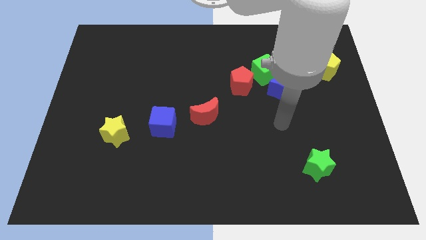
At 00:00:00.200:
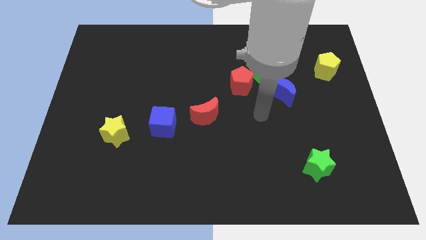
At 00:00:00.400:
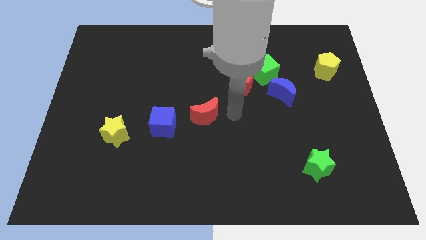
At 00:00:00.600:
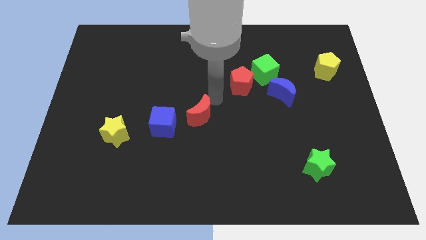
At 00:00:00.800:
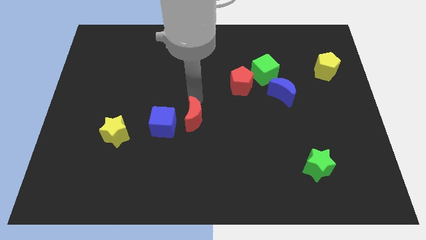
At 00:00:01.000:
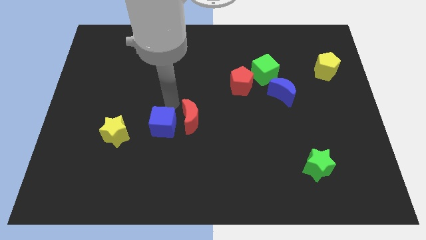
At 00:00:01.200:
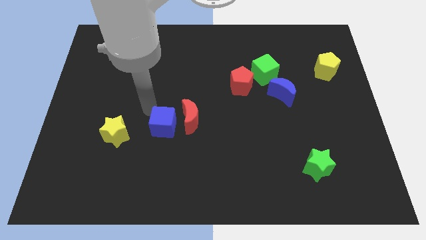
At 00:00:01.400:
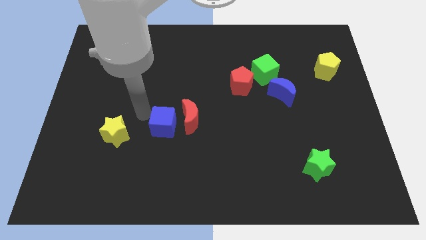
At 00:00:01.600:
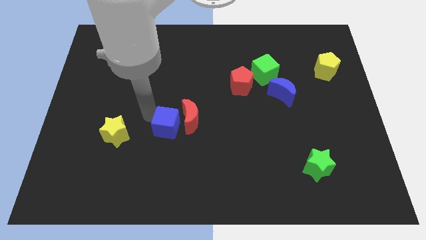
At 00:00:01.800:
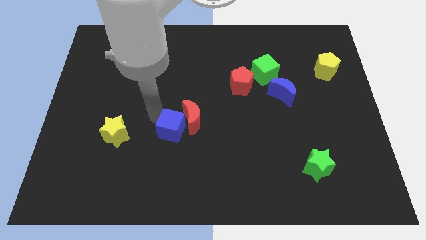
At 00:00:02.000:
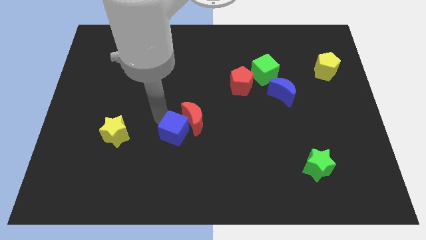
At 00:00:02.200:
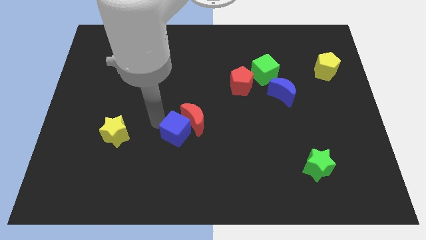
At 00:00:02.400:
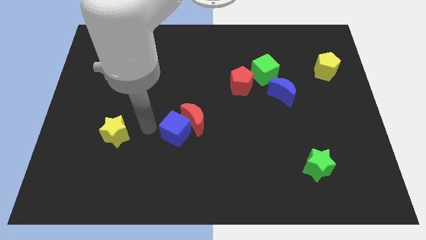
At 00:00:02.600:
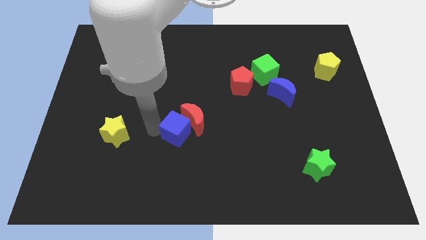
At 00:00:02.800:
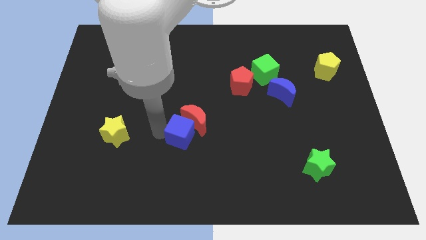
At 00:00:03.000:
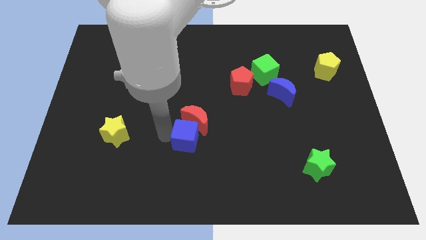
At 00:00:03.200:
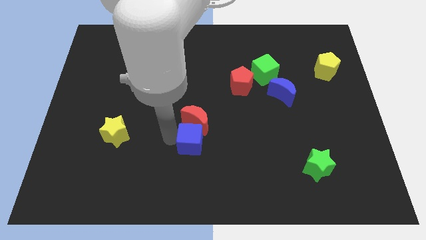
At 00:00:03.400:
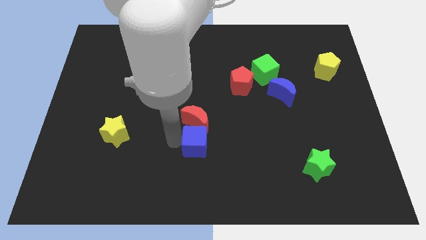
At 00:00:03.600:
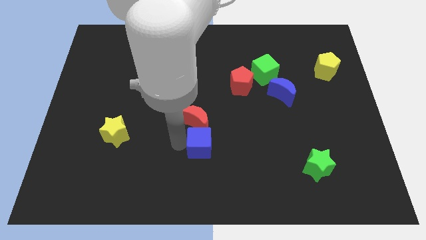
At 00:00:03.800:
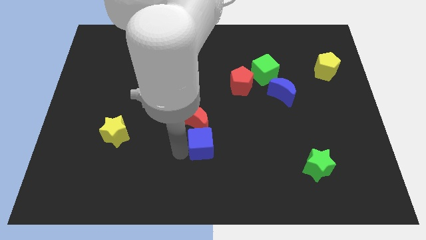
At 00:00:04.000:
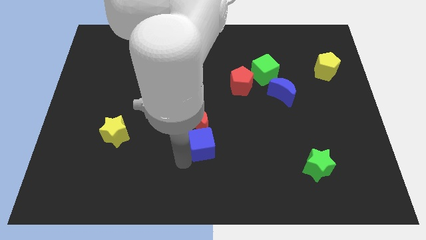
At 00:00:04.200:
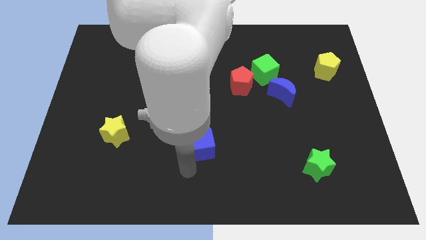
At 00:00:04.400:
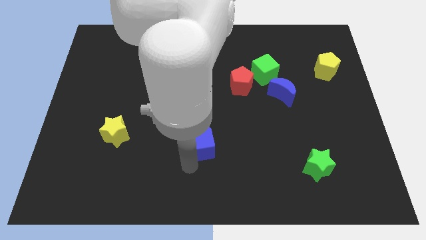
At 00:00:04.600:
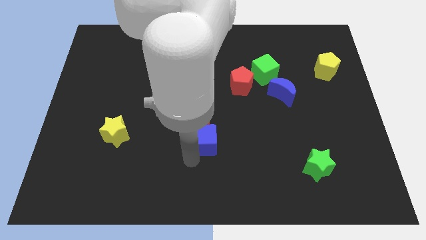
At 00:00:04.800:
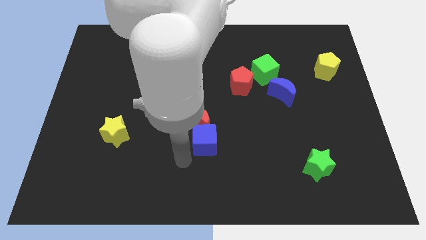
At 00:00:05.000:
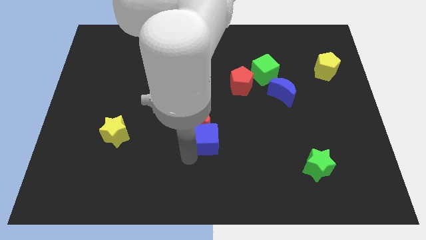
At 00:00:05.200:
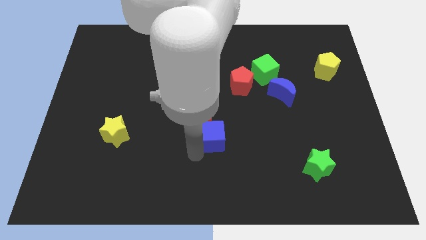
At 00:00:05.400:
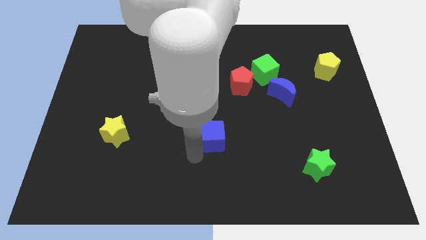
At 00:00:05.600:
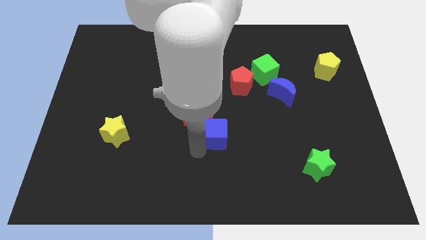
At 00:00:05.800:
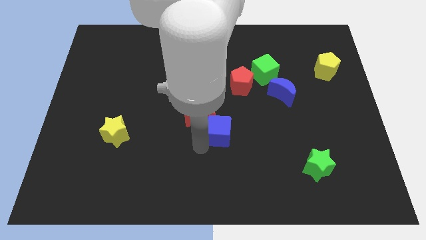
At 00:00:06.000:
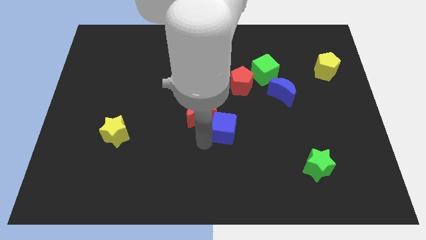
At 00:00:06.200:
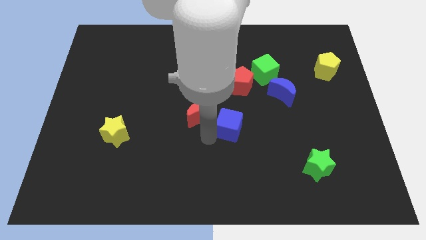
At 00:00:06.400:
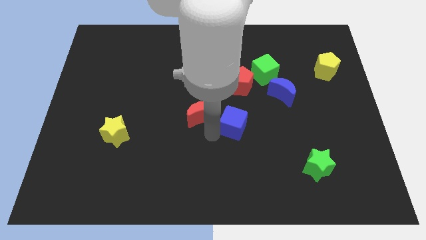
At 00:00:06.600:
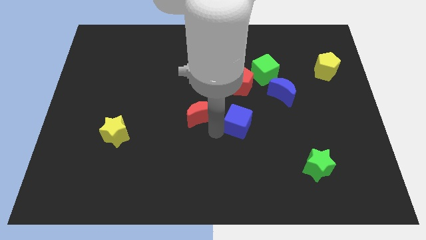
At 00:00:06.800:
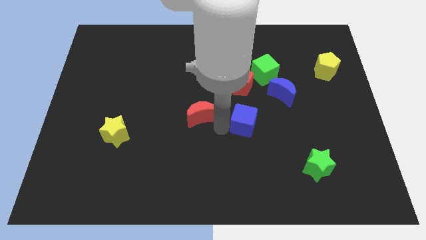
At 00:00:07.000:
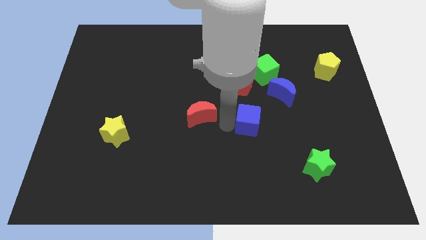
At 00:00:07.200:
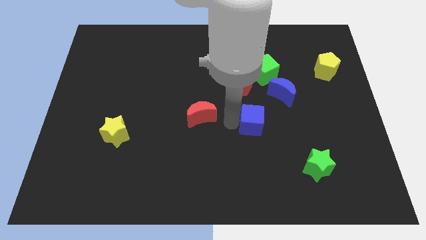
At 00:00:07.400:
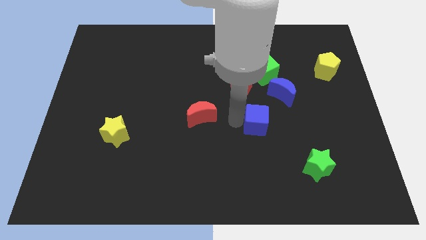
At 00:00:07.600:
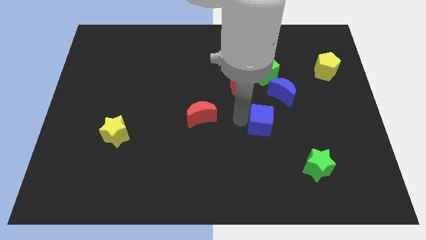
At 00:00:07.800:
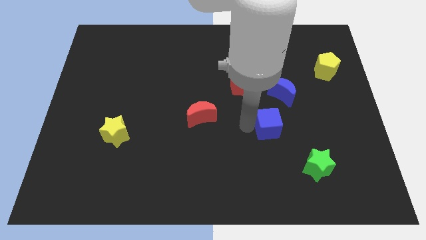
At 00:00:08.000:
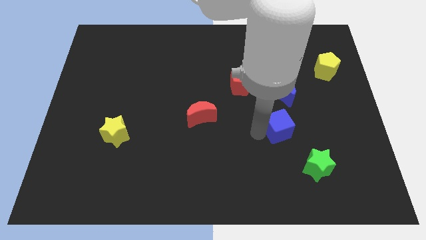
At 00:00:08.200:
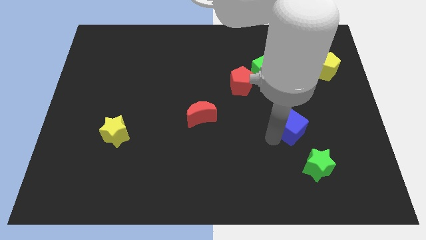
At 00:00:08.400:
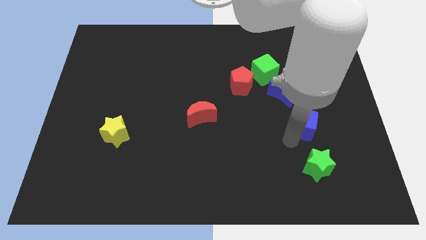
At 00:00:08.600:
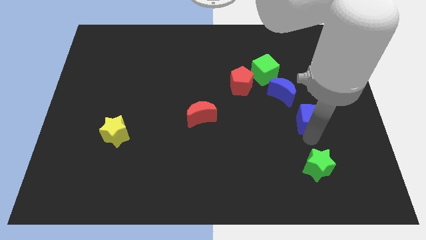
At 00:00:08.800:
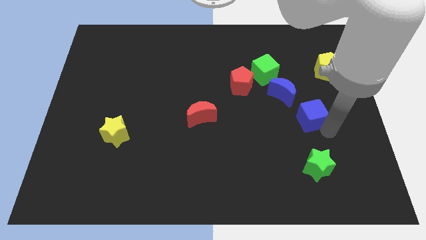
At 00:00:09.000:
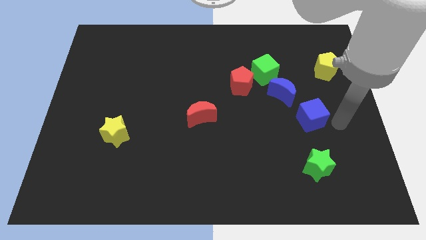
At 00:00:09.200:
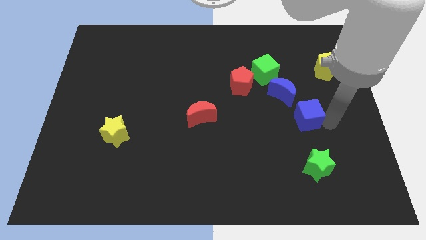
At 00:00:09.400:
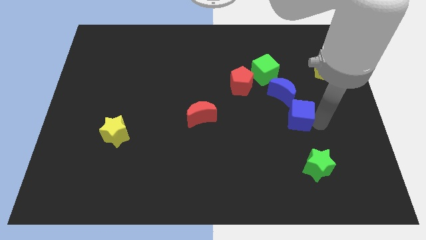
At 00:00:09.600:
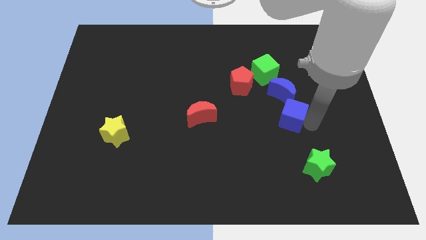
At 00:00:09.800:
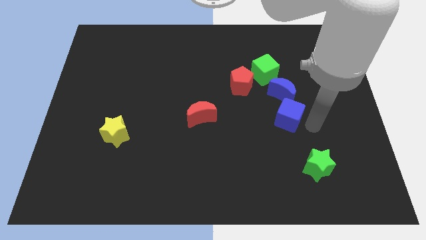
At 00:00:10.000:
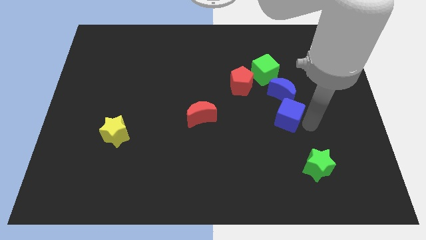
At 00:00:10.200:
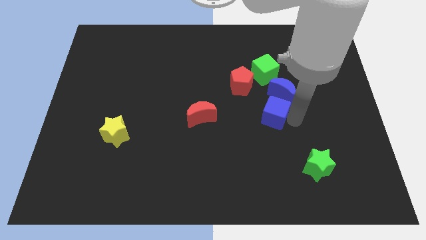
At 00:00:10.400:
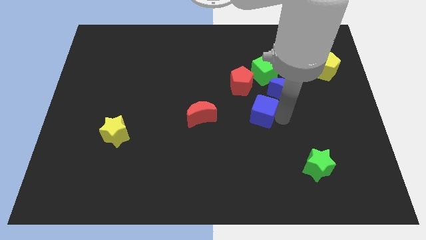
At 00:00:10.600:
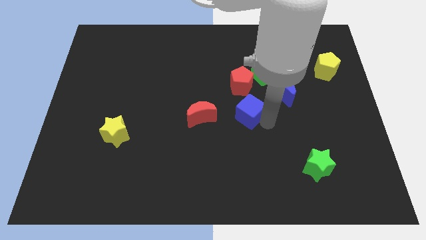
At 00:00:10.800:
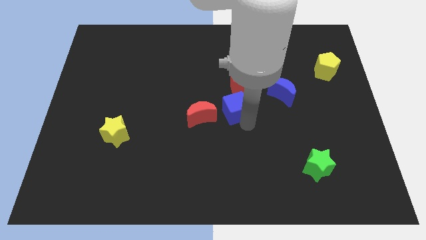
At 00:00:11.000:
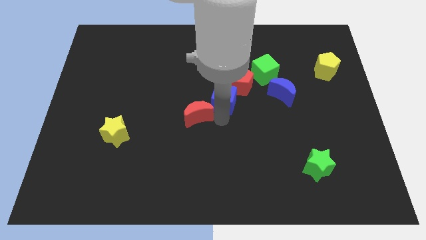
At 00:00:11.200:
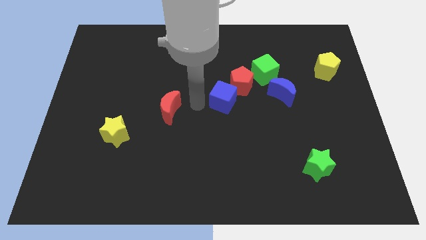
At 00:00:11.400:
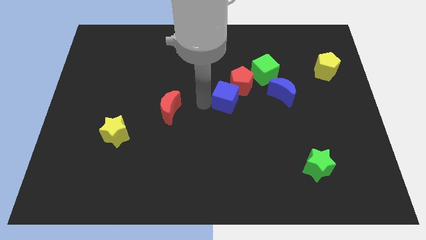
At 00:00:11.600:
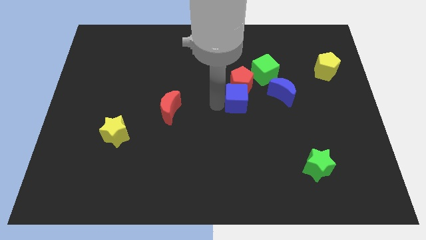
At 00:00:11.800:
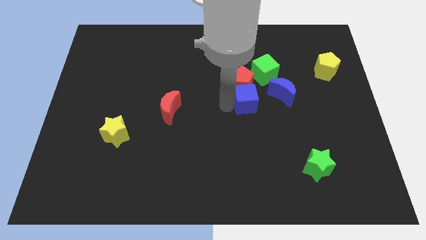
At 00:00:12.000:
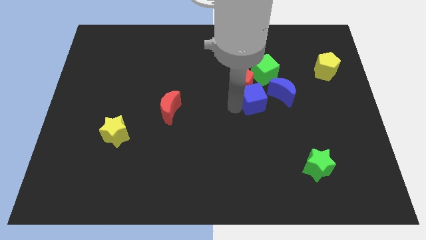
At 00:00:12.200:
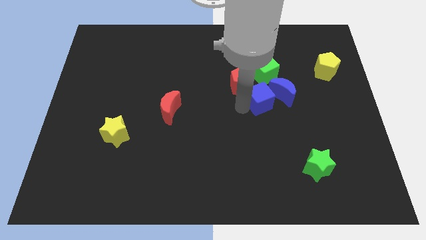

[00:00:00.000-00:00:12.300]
move the blue cube close to the blue moon

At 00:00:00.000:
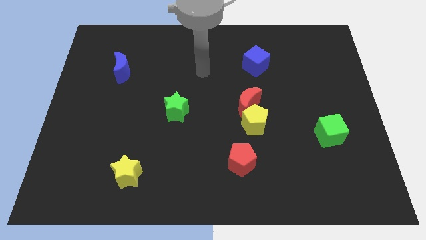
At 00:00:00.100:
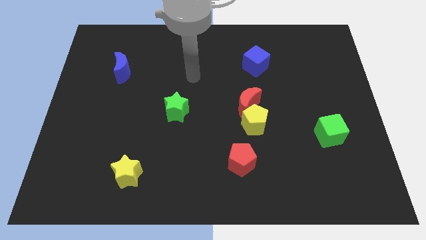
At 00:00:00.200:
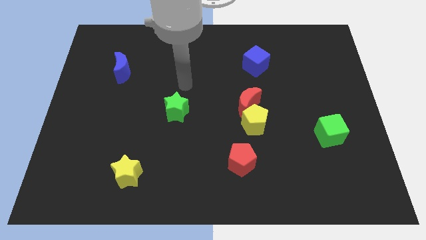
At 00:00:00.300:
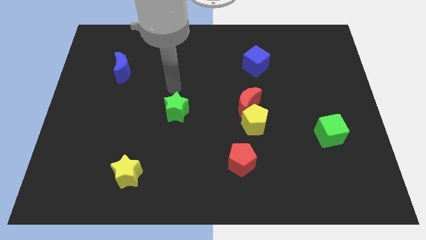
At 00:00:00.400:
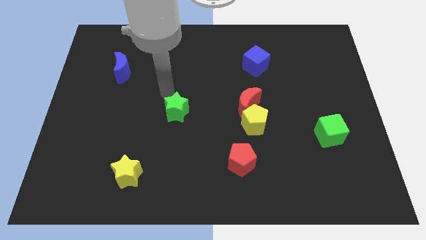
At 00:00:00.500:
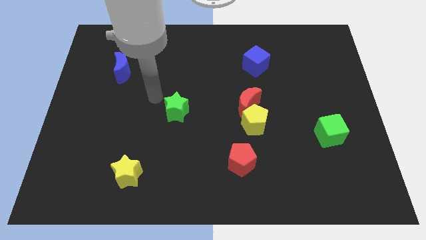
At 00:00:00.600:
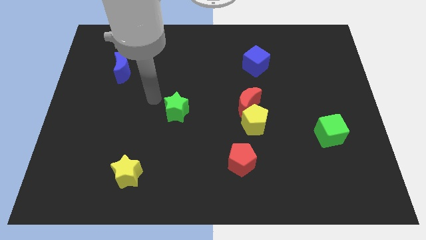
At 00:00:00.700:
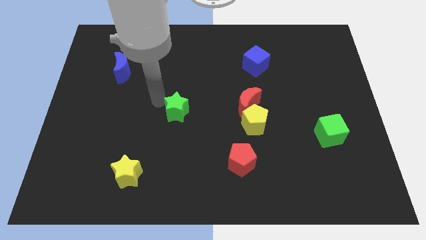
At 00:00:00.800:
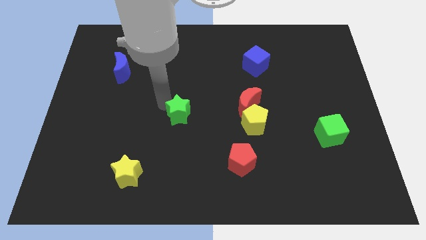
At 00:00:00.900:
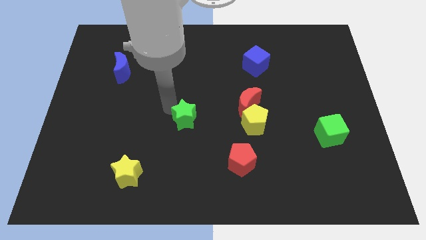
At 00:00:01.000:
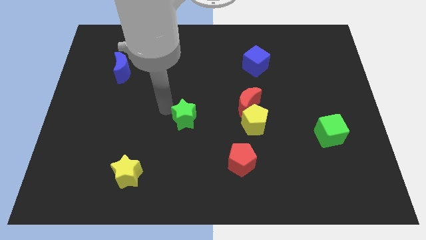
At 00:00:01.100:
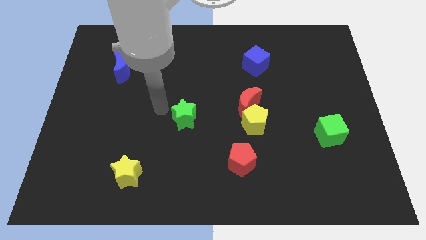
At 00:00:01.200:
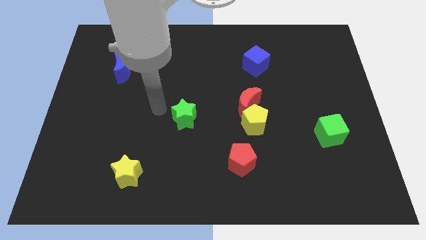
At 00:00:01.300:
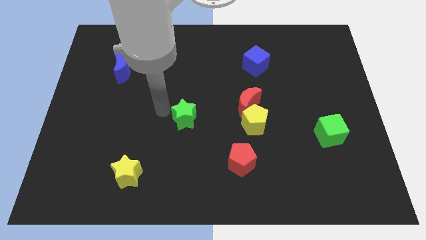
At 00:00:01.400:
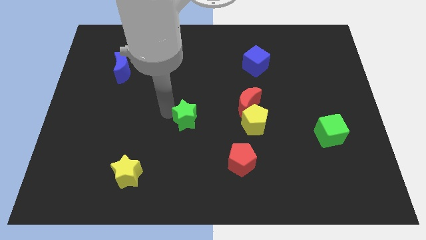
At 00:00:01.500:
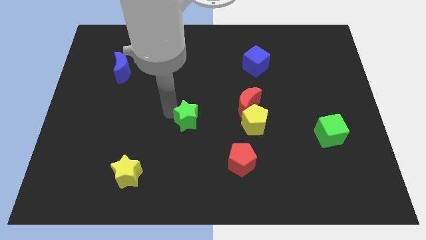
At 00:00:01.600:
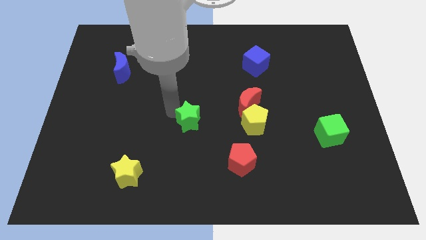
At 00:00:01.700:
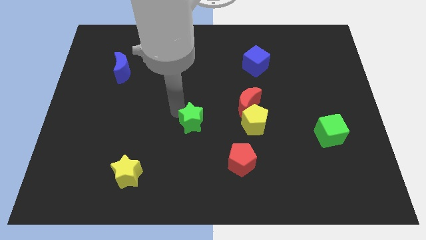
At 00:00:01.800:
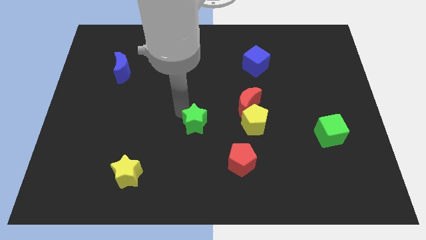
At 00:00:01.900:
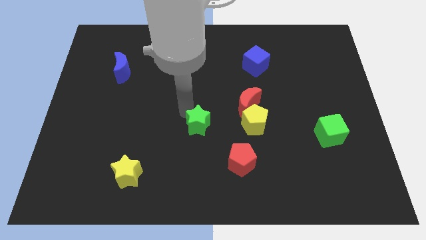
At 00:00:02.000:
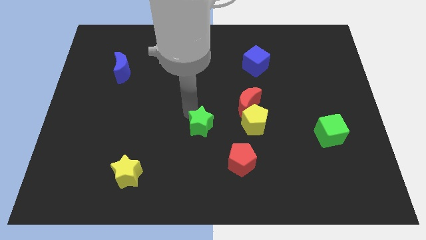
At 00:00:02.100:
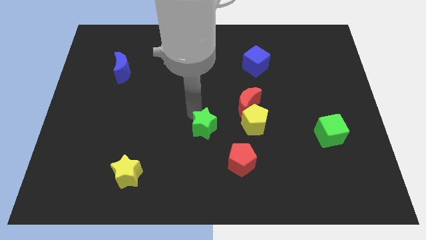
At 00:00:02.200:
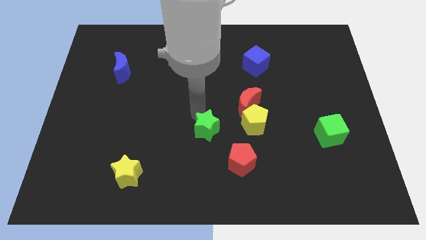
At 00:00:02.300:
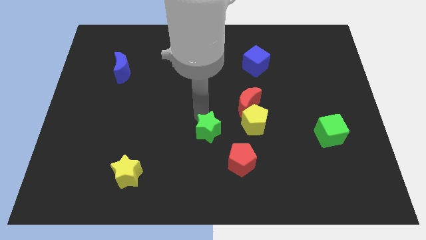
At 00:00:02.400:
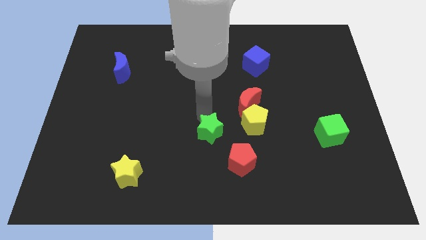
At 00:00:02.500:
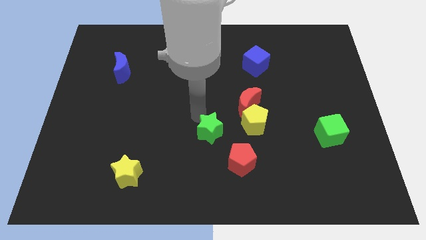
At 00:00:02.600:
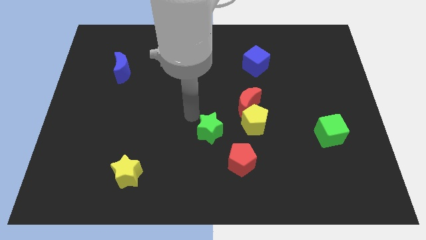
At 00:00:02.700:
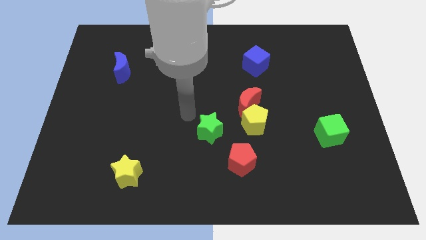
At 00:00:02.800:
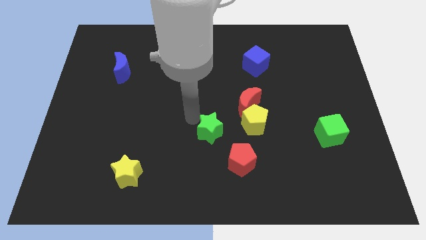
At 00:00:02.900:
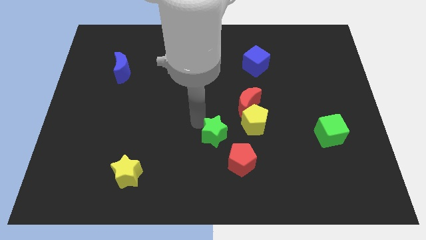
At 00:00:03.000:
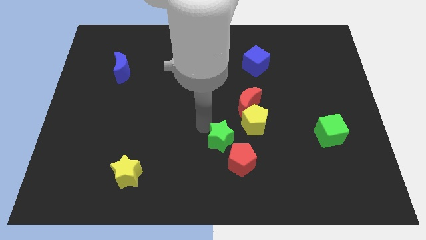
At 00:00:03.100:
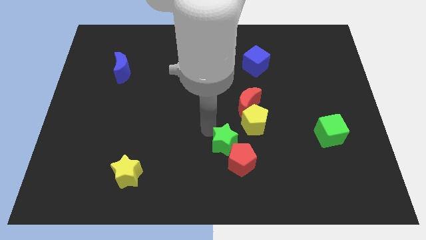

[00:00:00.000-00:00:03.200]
move the green star to the red pentagon
